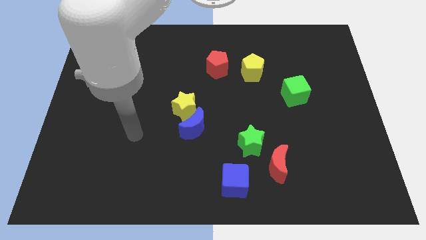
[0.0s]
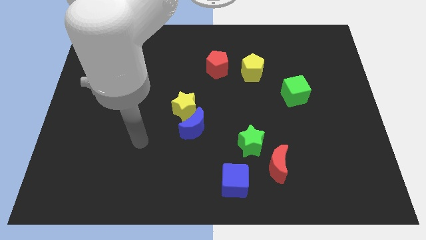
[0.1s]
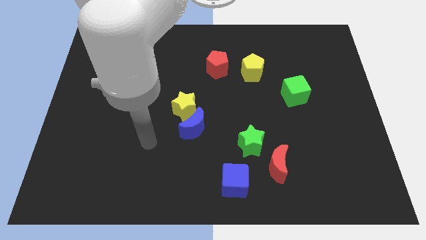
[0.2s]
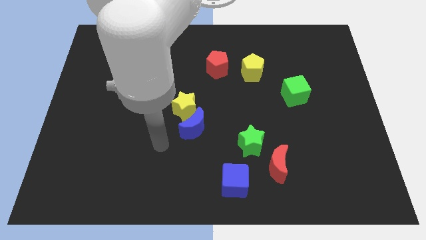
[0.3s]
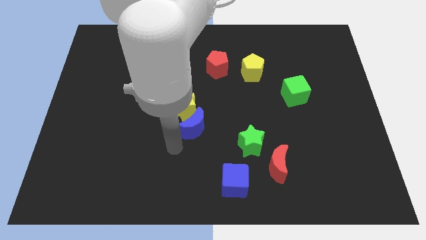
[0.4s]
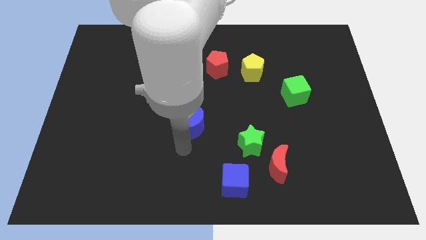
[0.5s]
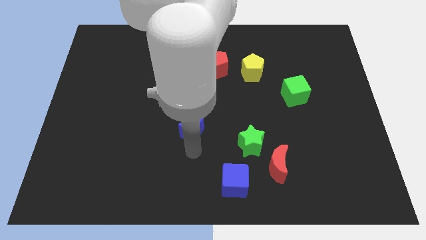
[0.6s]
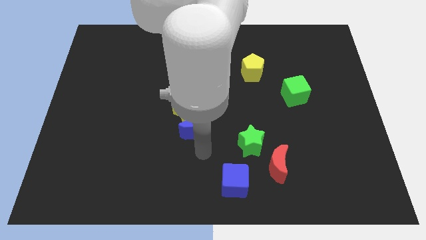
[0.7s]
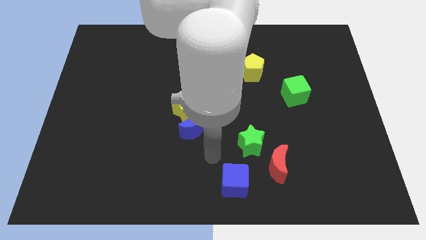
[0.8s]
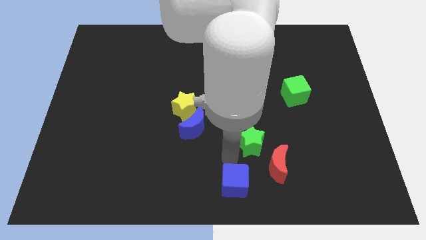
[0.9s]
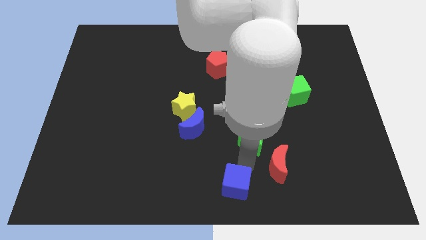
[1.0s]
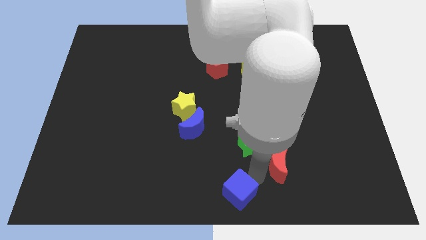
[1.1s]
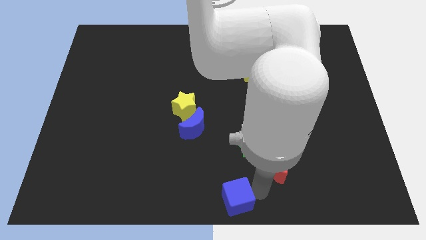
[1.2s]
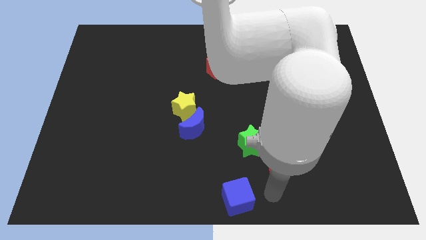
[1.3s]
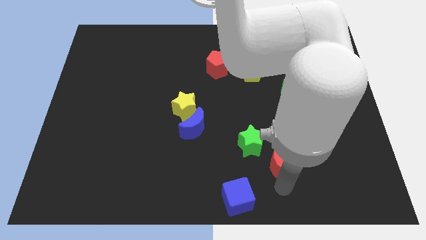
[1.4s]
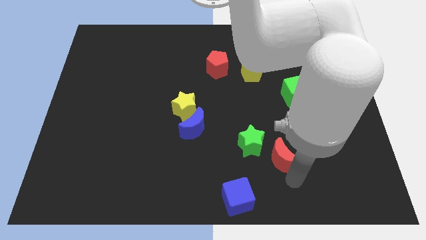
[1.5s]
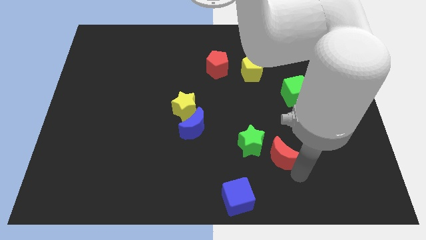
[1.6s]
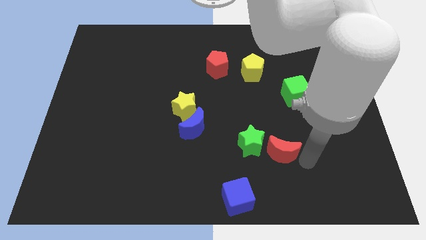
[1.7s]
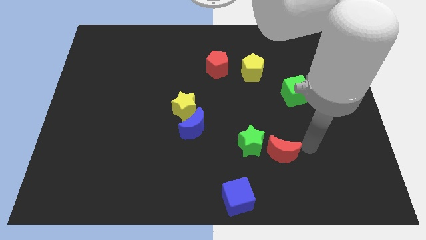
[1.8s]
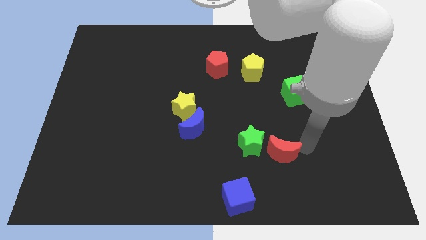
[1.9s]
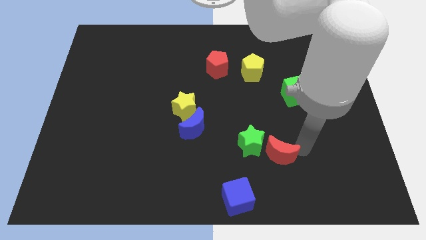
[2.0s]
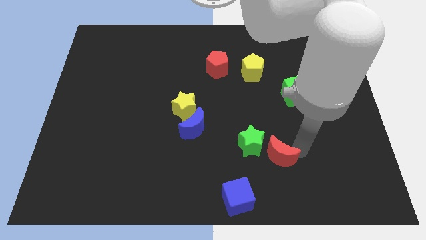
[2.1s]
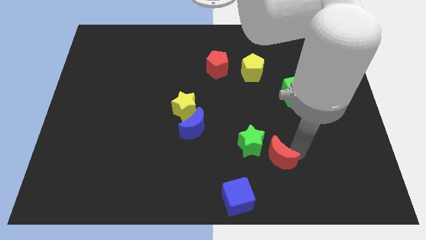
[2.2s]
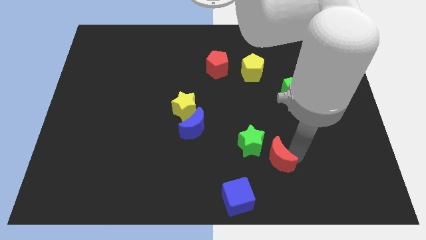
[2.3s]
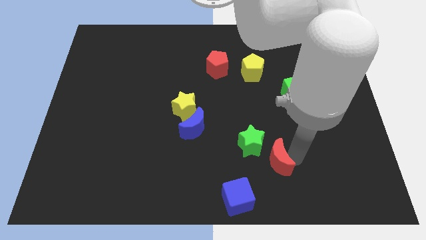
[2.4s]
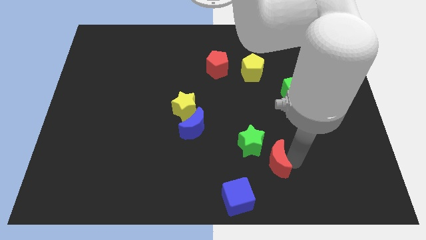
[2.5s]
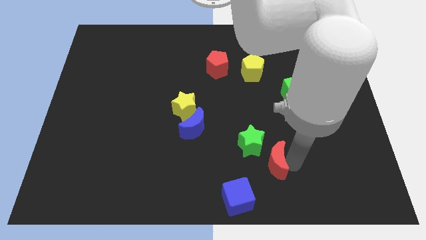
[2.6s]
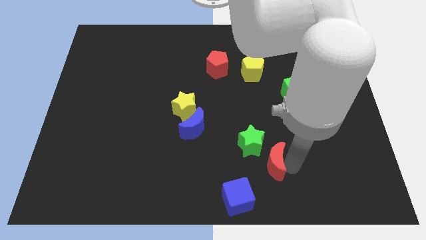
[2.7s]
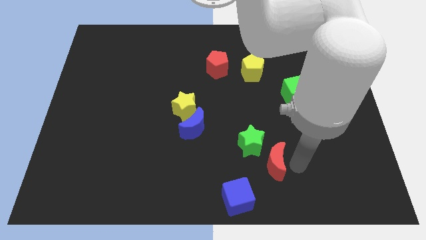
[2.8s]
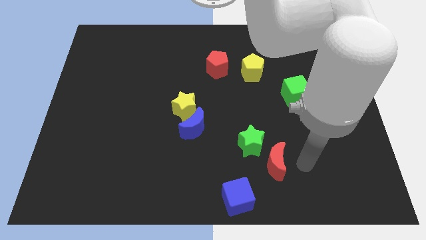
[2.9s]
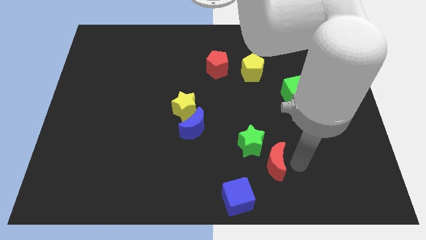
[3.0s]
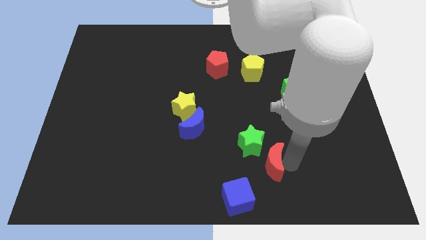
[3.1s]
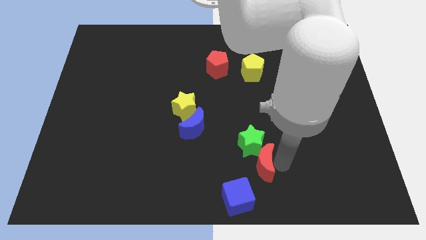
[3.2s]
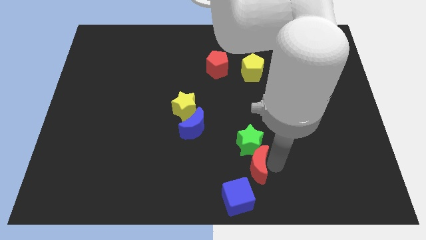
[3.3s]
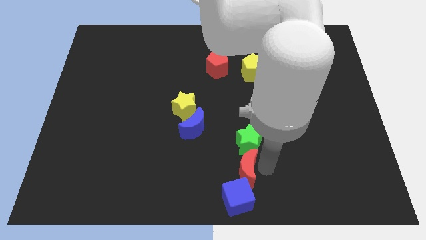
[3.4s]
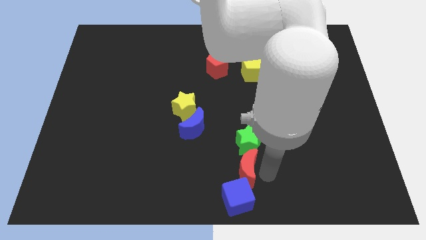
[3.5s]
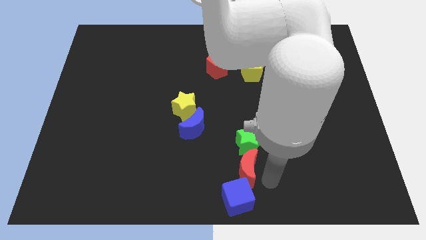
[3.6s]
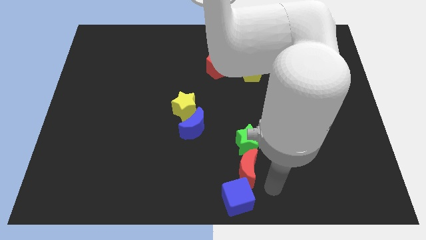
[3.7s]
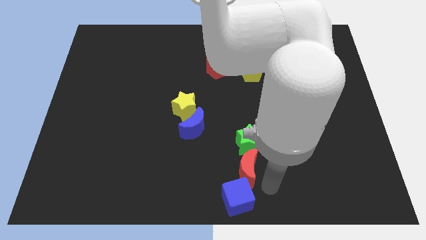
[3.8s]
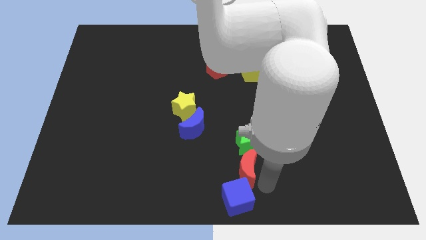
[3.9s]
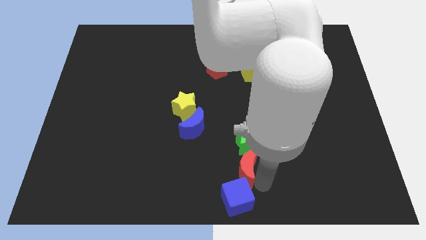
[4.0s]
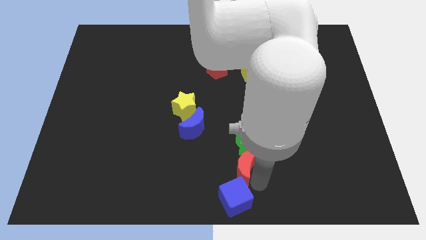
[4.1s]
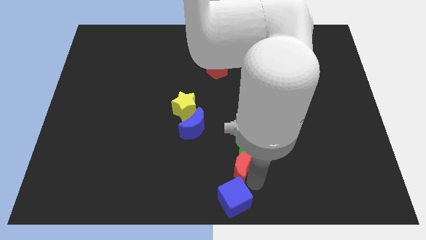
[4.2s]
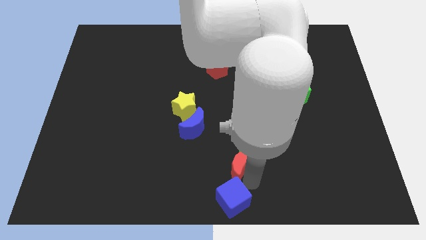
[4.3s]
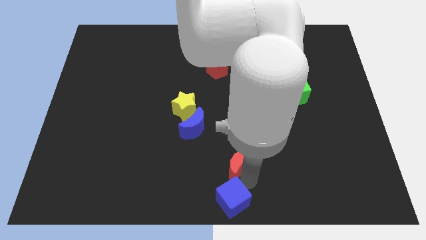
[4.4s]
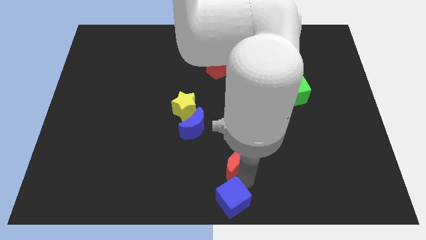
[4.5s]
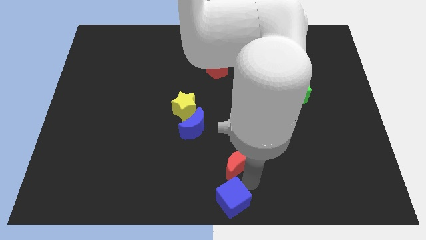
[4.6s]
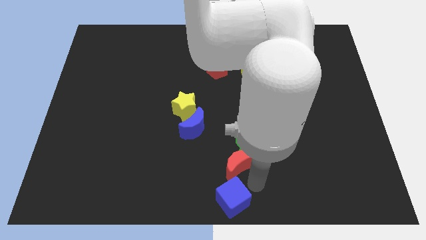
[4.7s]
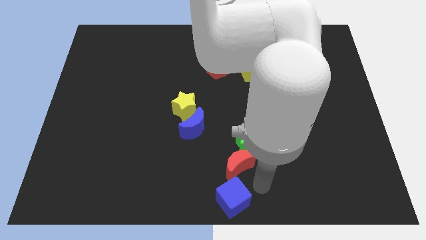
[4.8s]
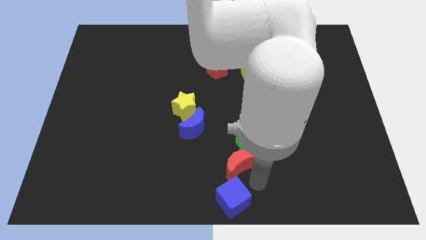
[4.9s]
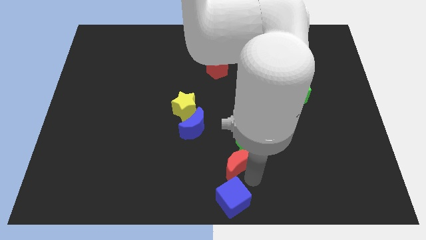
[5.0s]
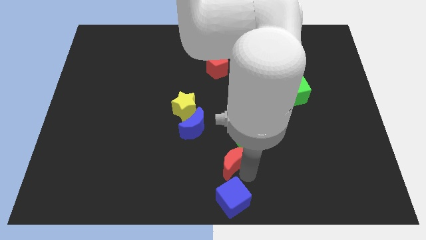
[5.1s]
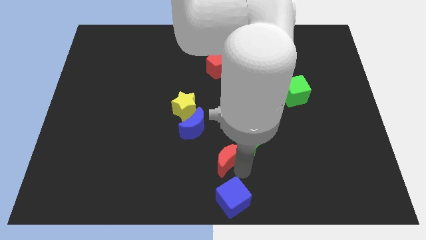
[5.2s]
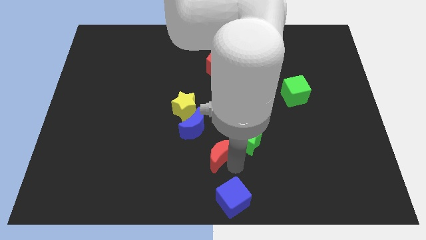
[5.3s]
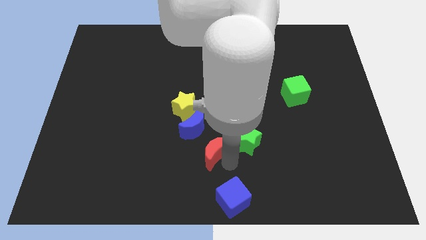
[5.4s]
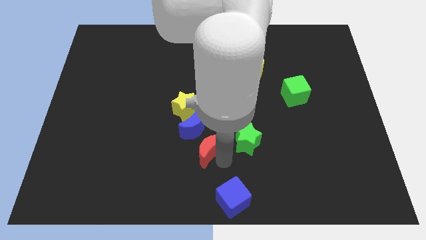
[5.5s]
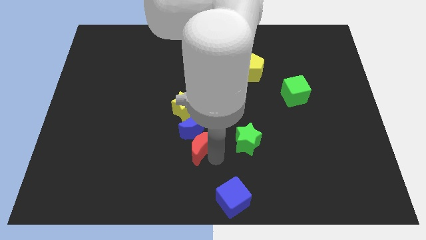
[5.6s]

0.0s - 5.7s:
slide the red moon towards the blue moon

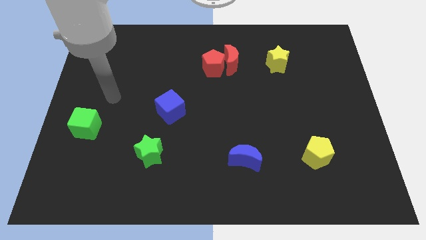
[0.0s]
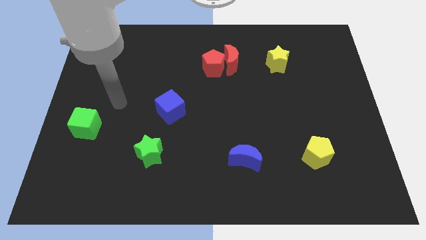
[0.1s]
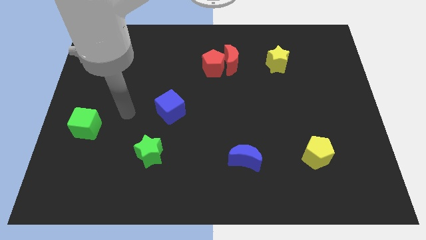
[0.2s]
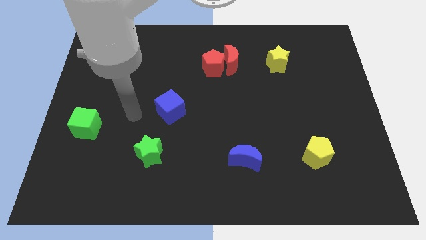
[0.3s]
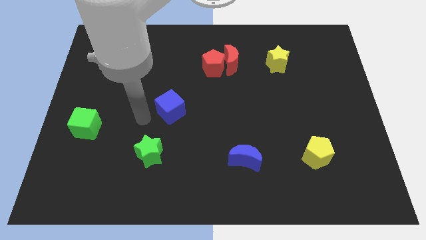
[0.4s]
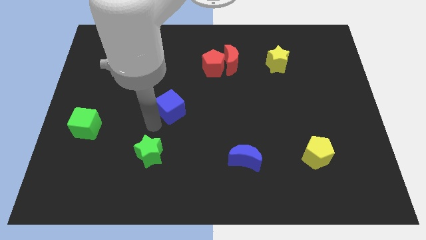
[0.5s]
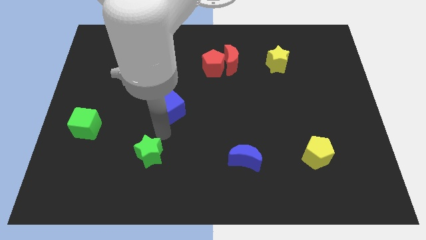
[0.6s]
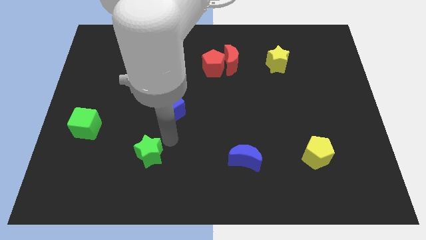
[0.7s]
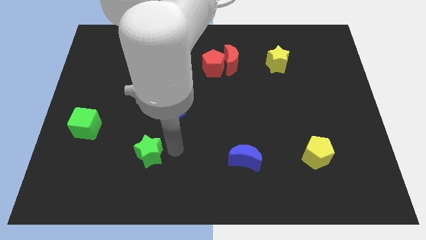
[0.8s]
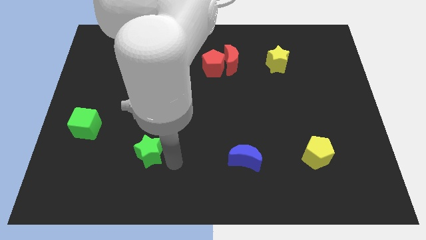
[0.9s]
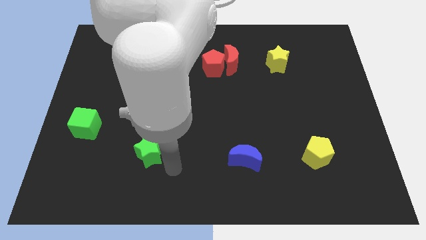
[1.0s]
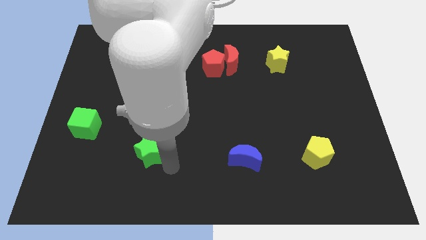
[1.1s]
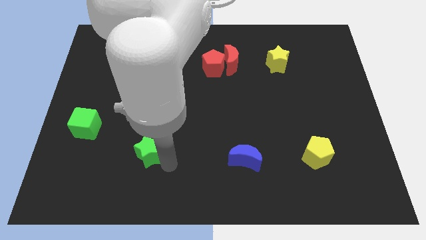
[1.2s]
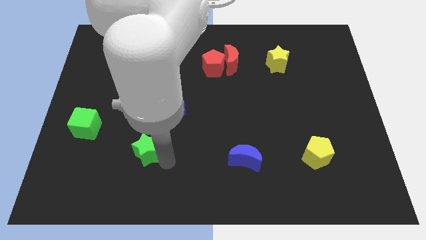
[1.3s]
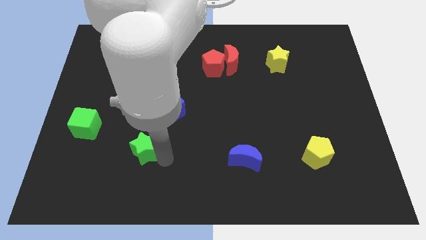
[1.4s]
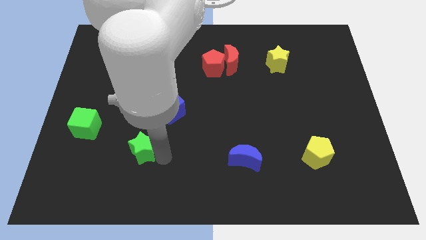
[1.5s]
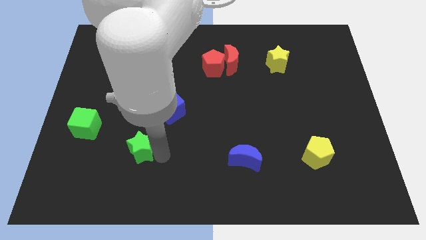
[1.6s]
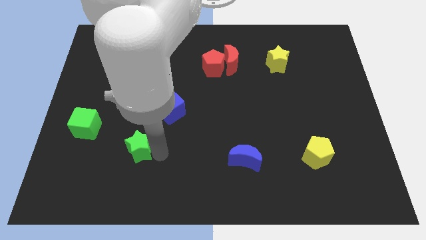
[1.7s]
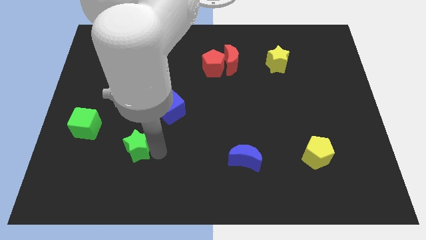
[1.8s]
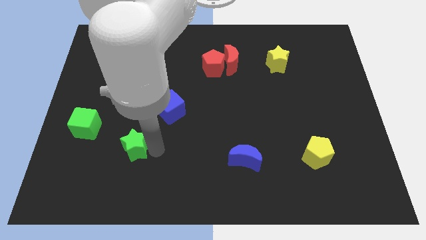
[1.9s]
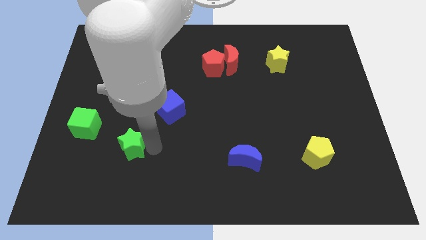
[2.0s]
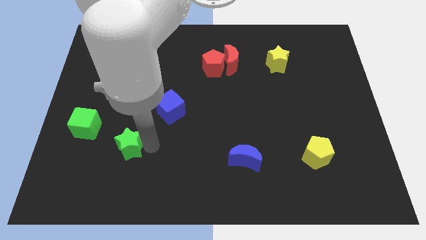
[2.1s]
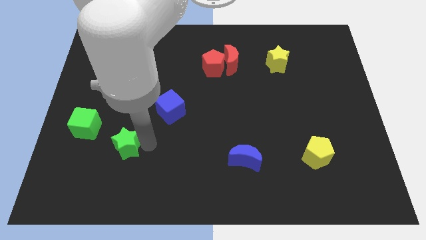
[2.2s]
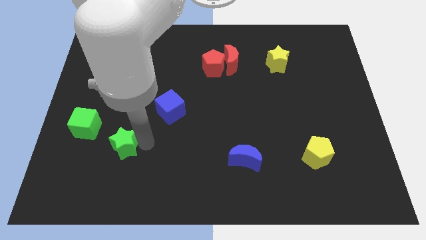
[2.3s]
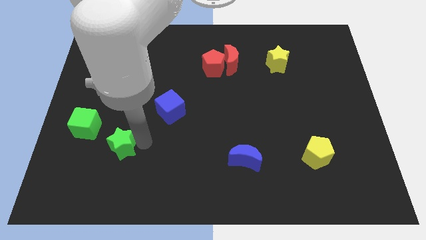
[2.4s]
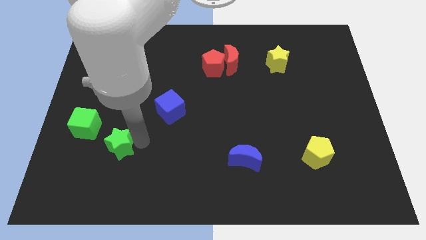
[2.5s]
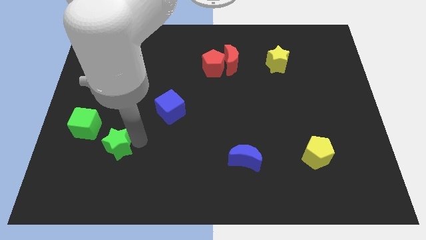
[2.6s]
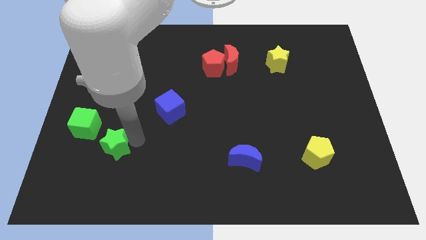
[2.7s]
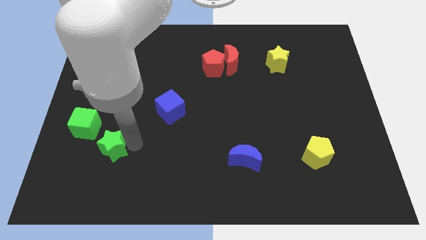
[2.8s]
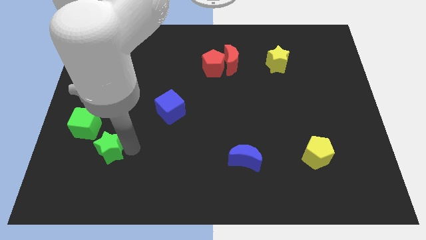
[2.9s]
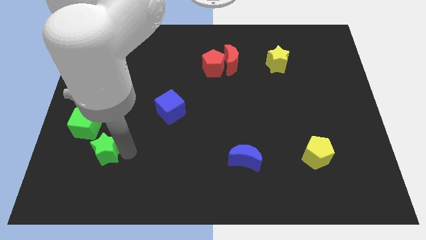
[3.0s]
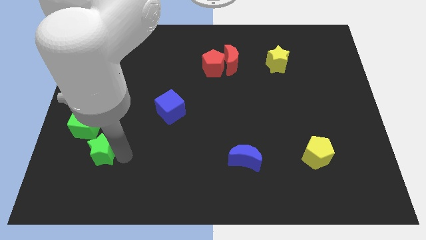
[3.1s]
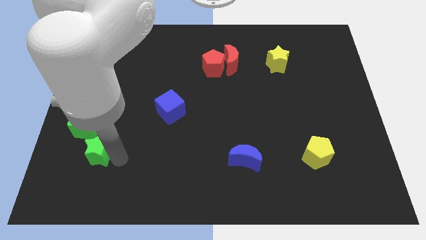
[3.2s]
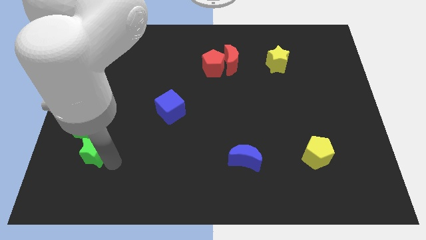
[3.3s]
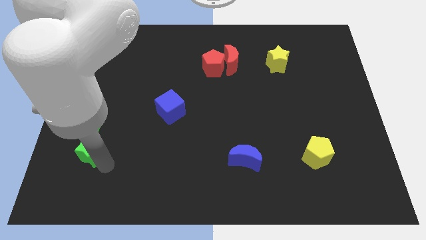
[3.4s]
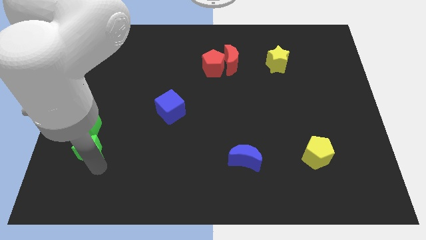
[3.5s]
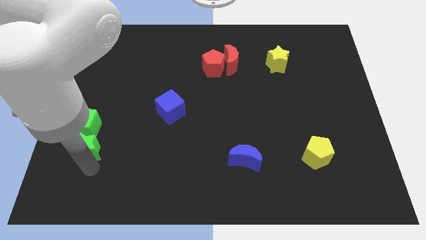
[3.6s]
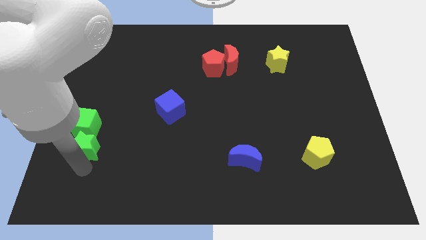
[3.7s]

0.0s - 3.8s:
put the green star to the green cube
